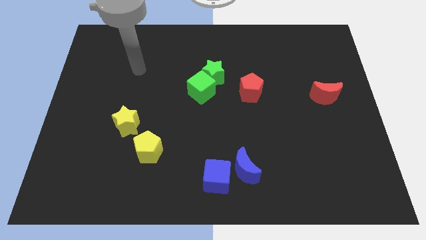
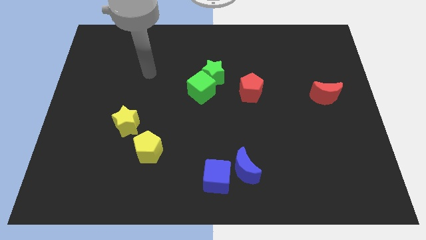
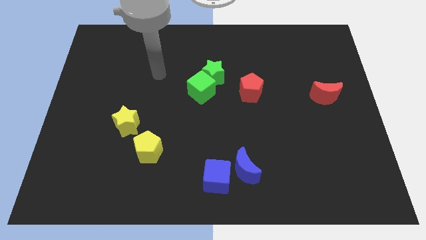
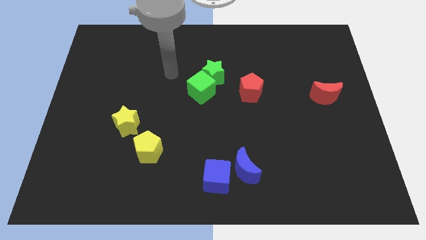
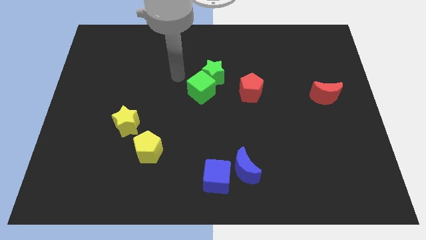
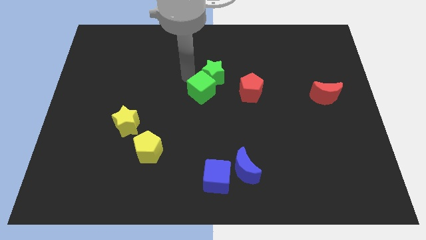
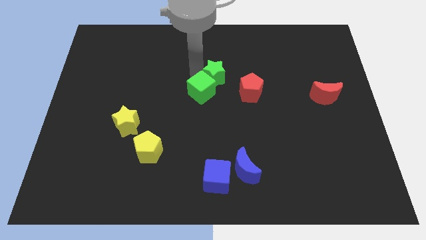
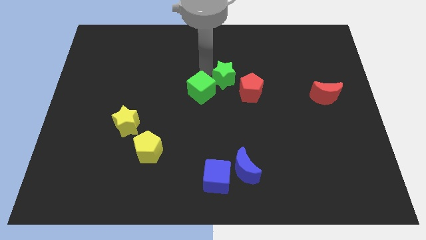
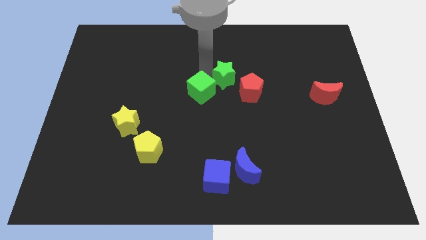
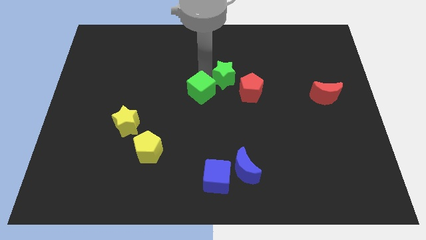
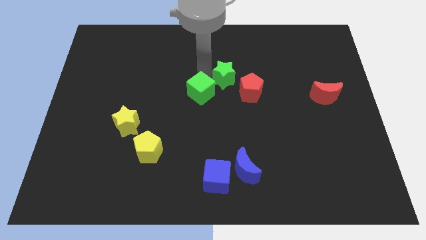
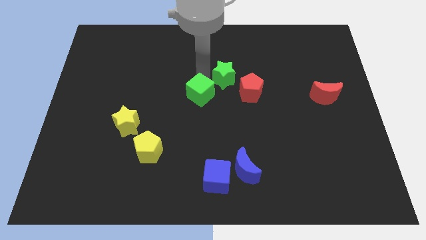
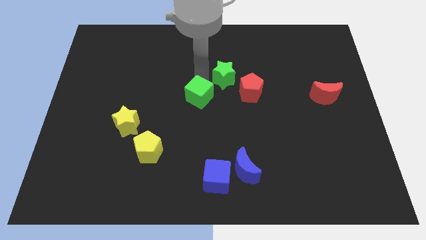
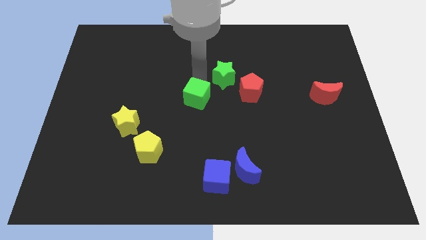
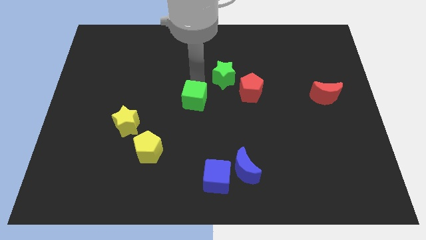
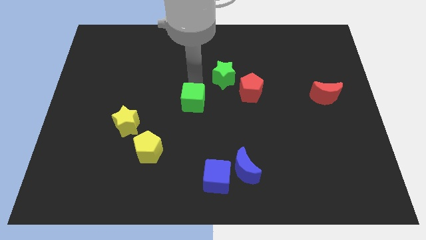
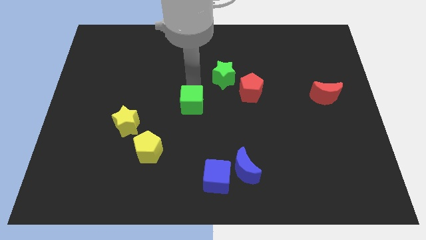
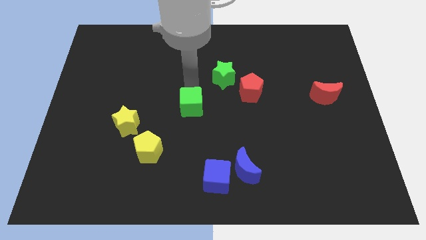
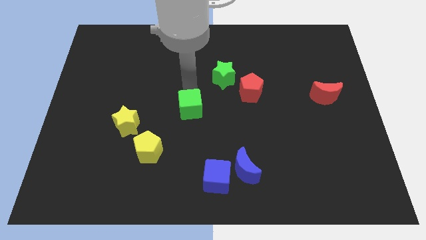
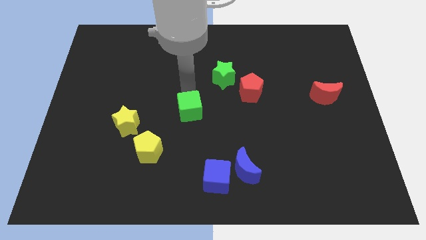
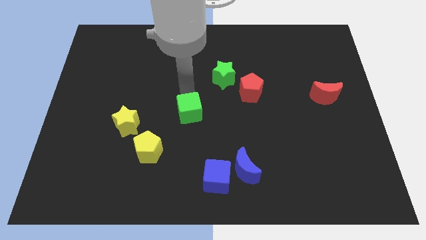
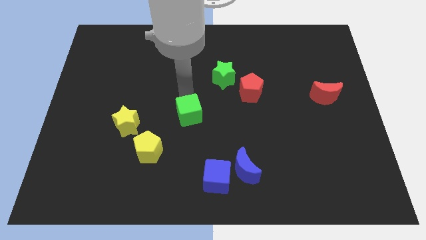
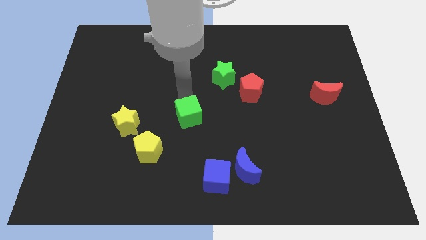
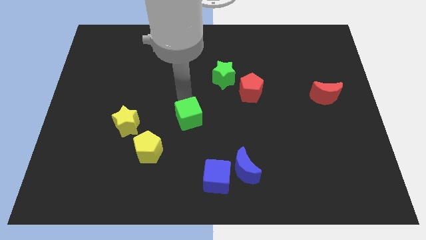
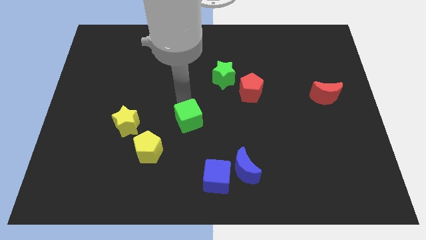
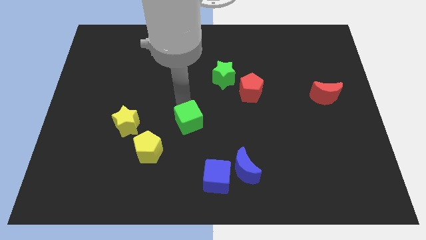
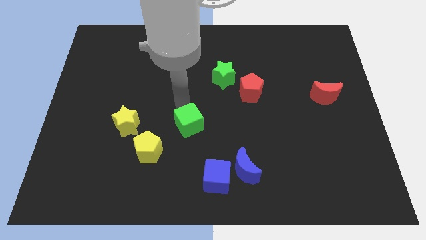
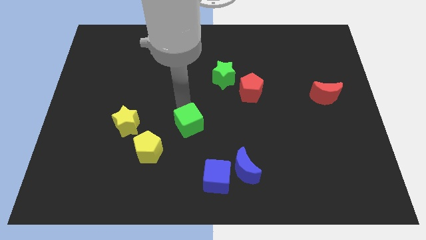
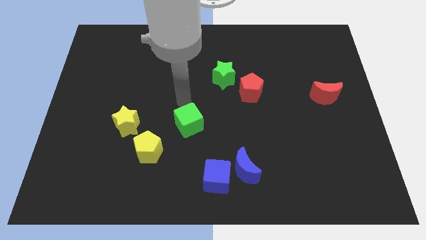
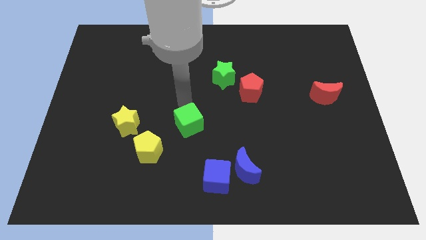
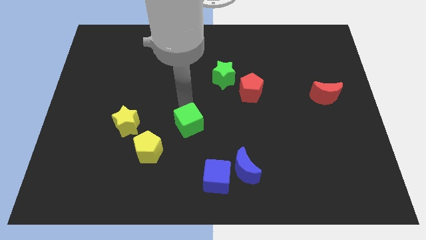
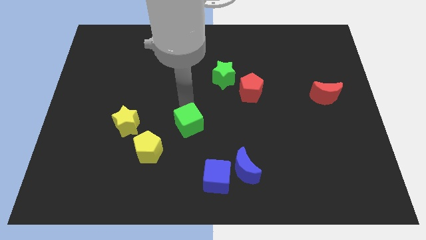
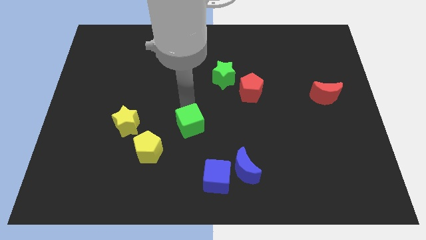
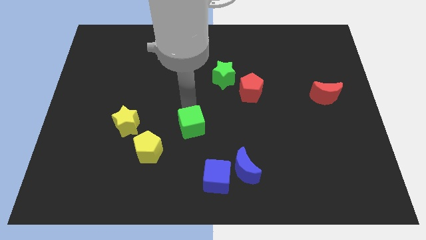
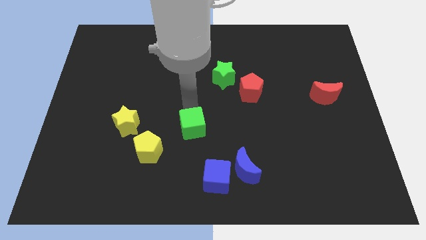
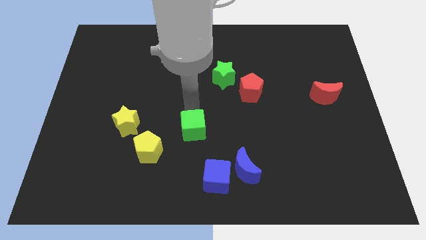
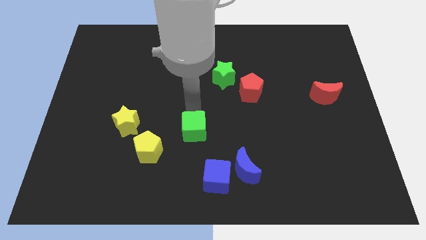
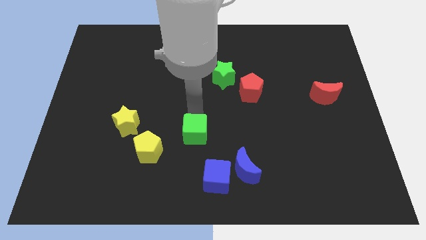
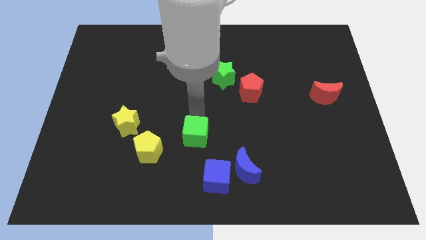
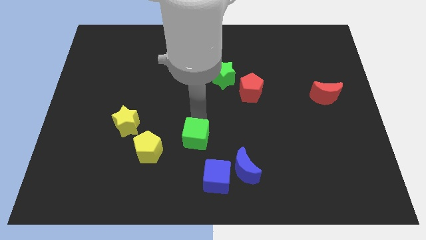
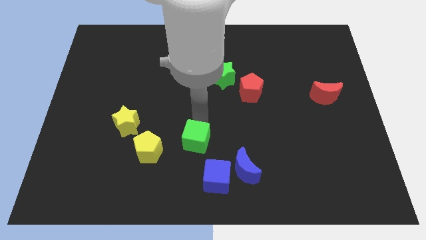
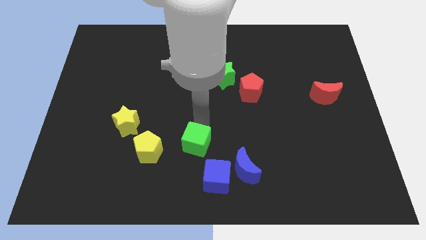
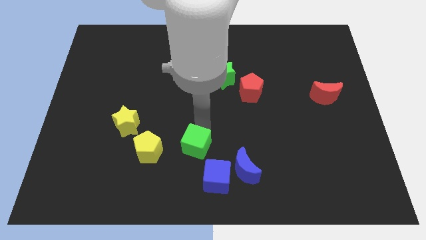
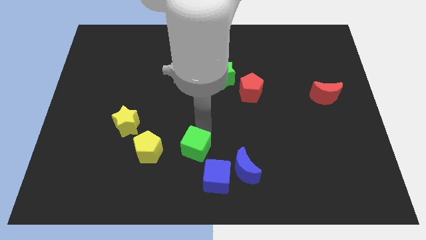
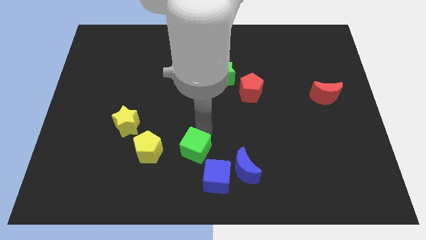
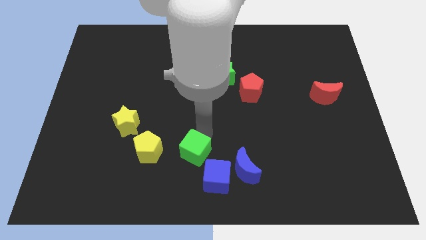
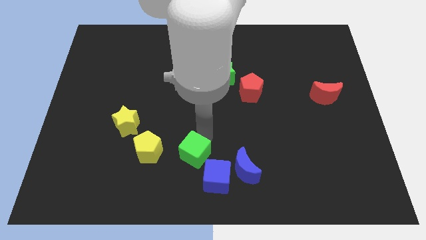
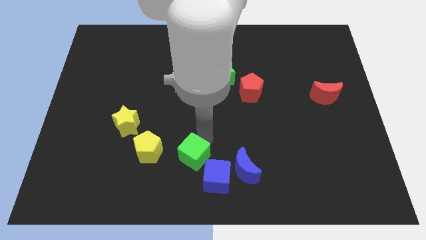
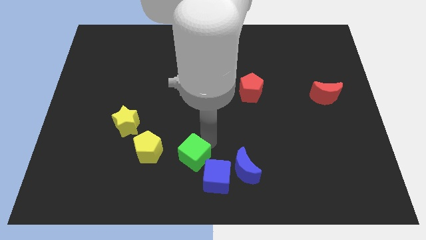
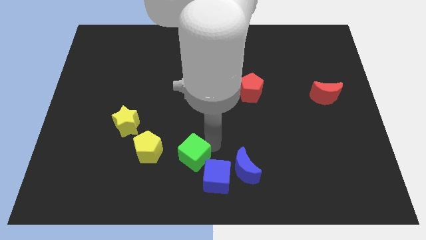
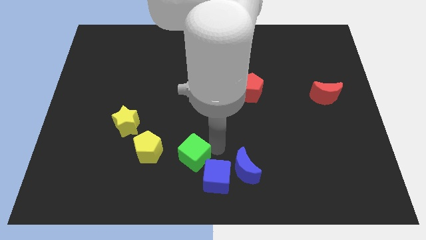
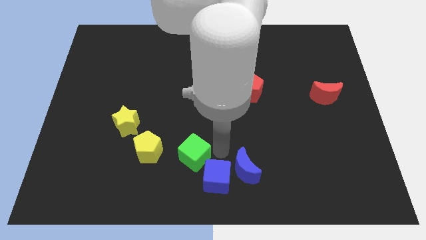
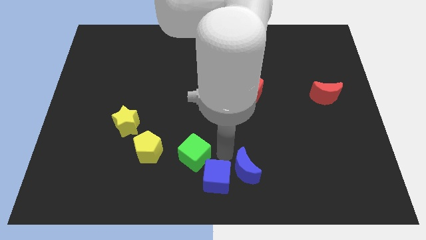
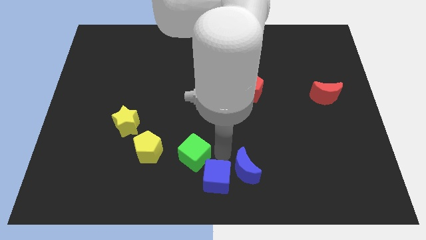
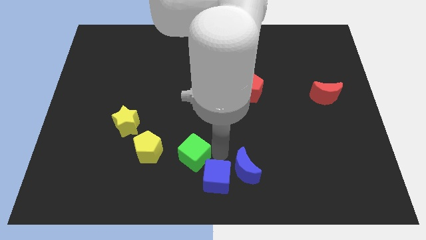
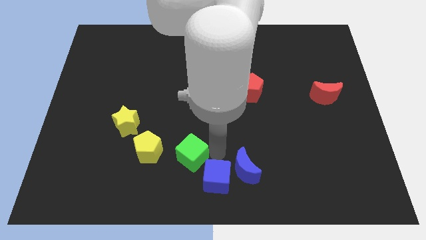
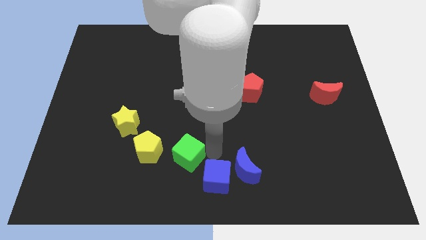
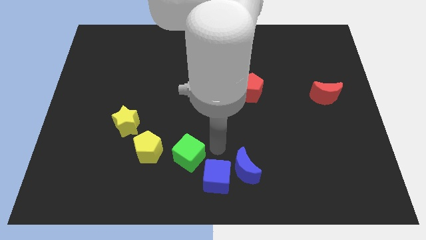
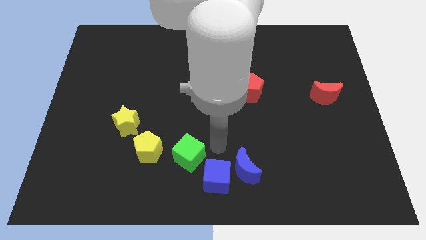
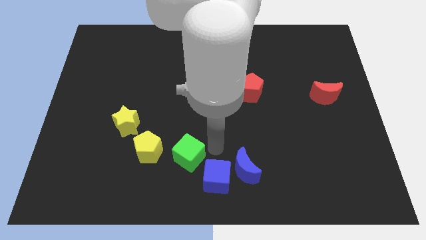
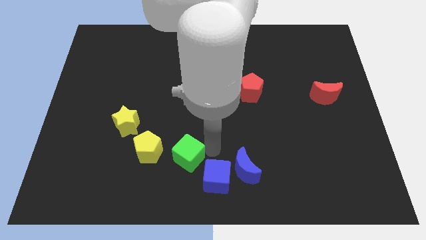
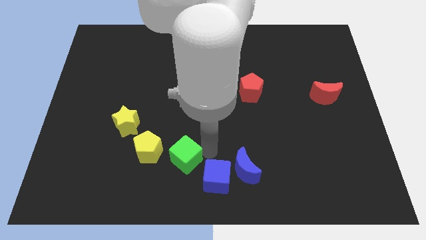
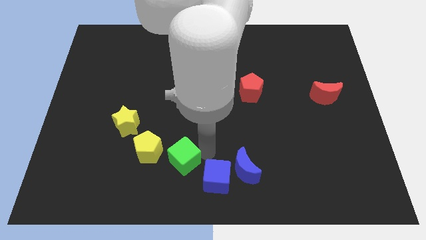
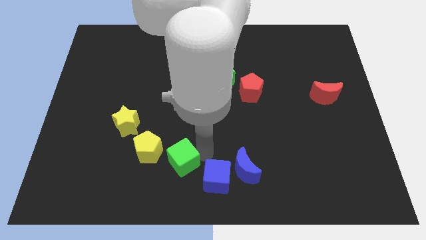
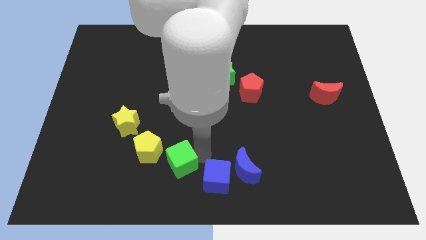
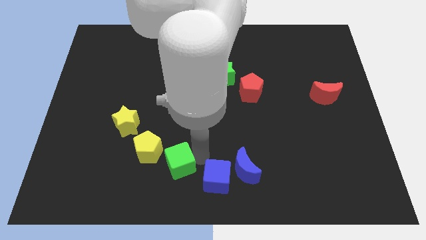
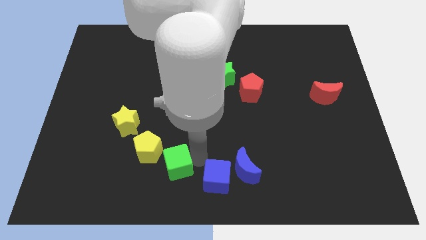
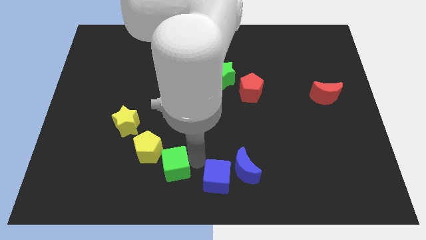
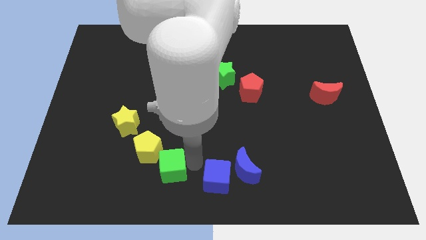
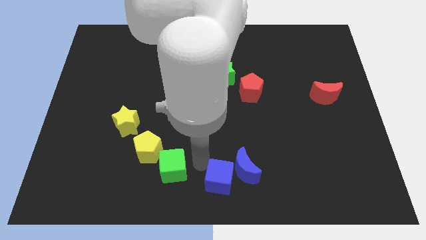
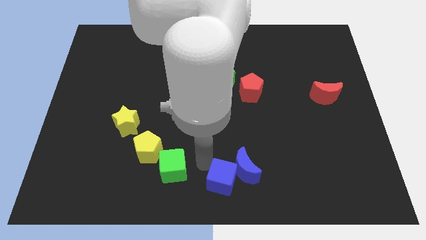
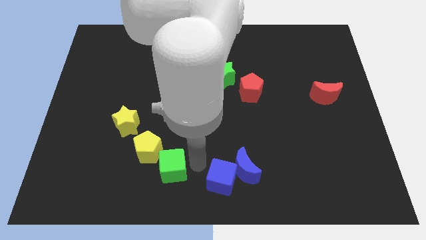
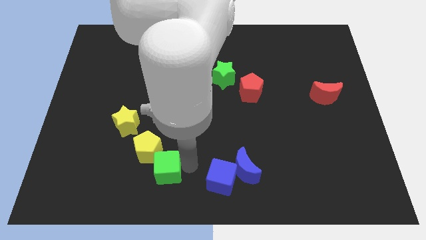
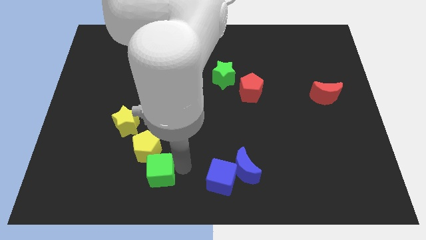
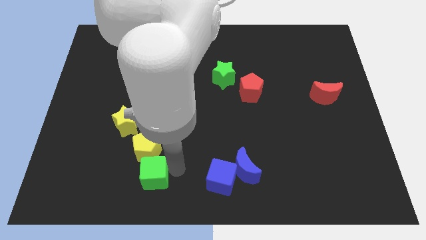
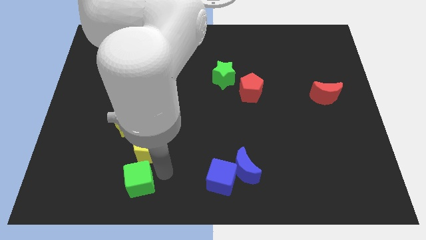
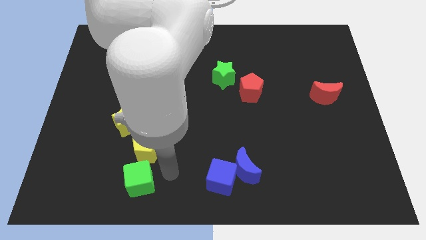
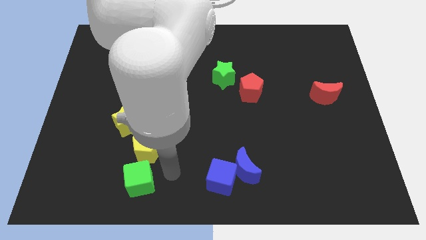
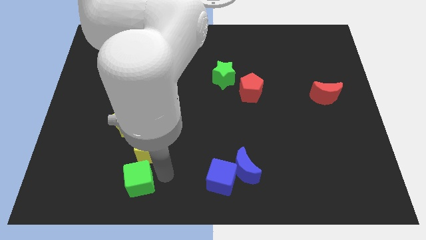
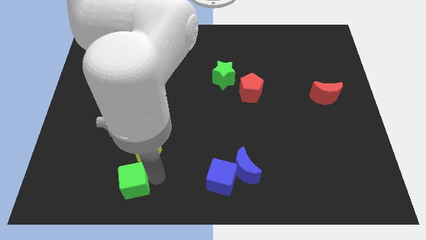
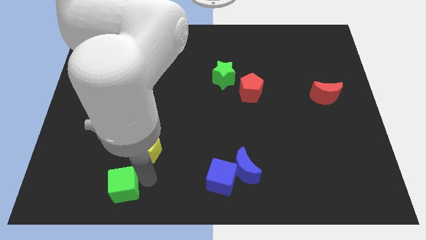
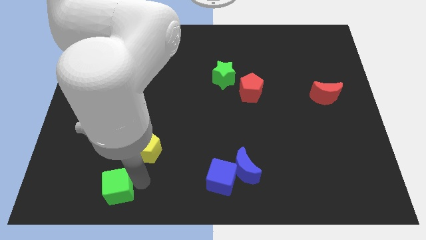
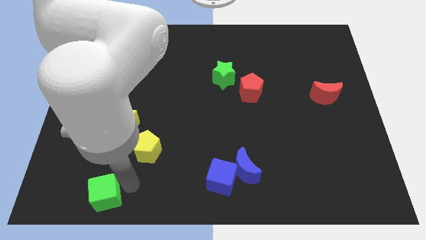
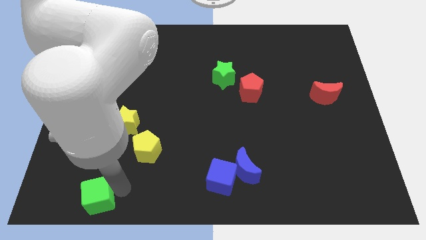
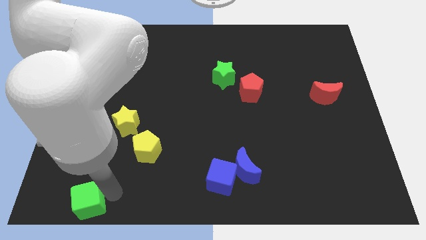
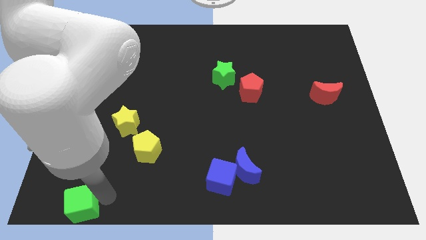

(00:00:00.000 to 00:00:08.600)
put the green cube to the bottom left corner
